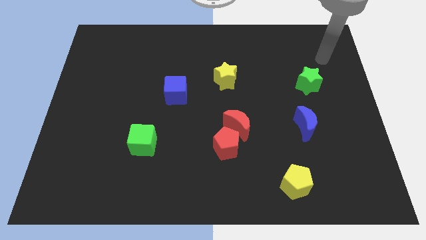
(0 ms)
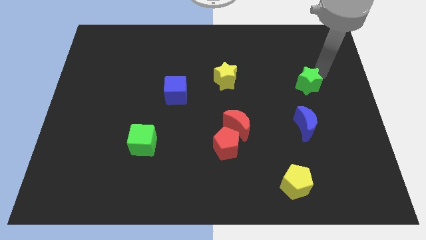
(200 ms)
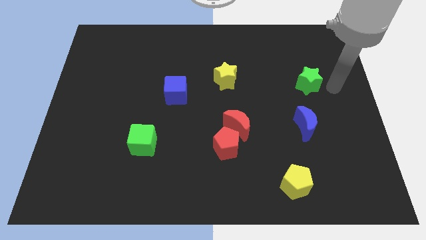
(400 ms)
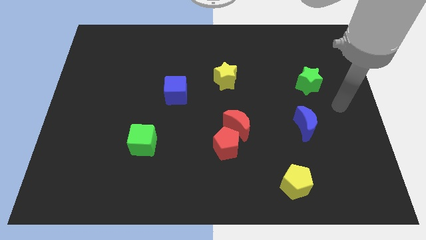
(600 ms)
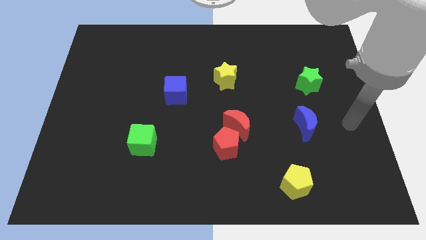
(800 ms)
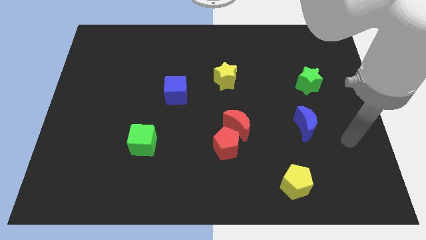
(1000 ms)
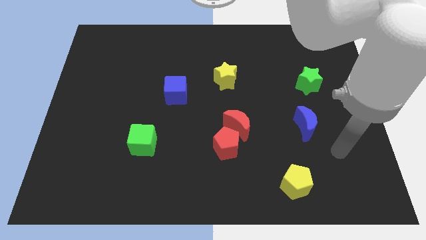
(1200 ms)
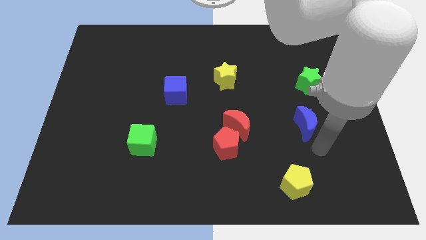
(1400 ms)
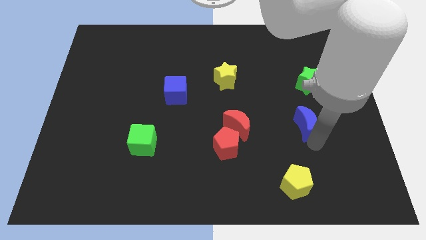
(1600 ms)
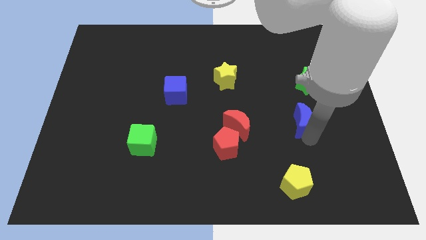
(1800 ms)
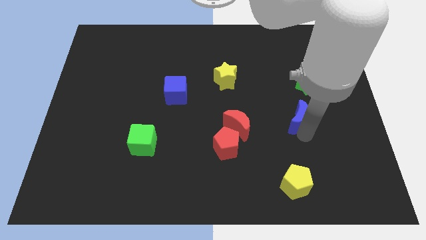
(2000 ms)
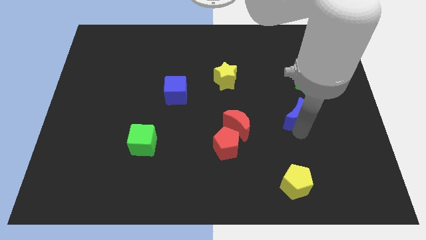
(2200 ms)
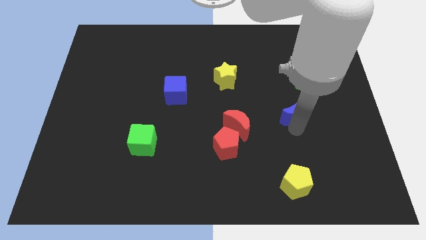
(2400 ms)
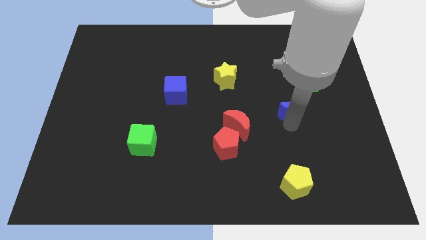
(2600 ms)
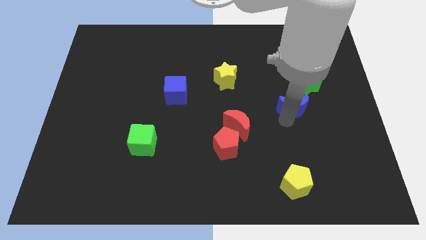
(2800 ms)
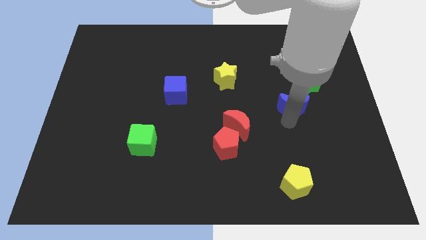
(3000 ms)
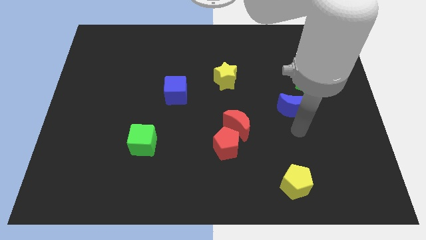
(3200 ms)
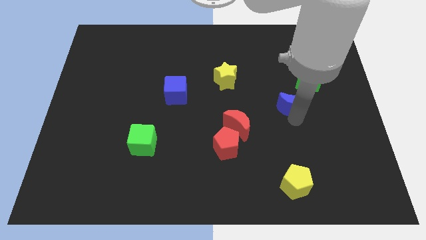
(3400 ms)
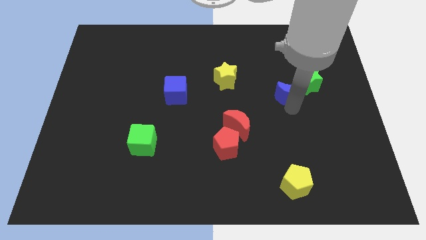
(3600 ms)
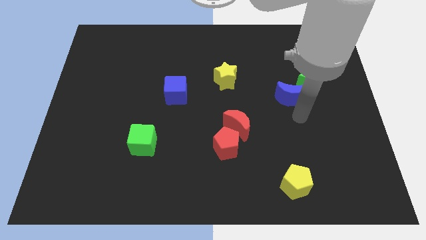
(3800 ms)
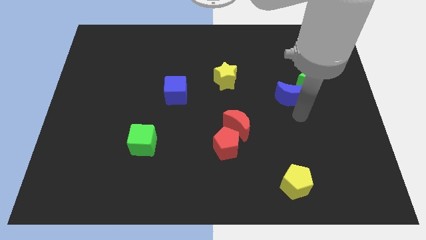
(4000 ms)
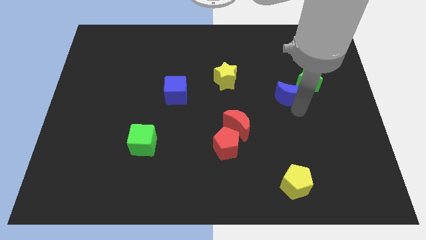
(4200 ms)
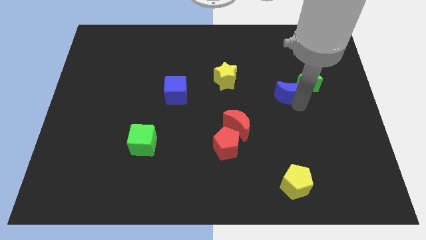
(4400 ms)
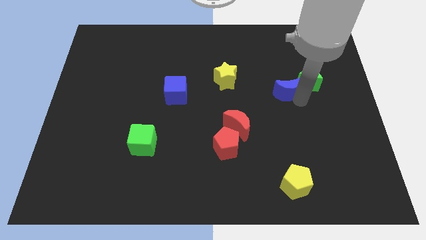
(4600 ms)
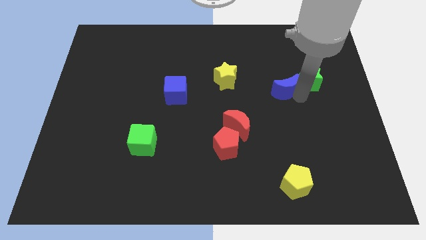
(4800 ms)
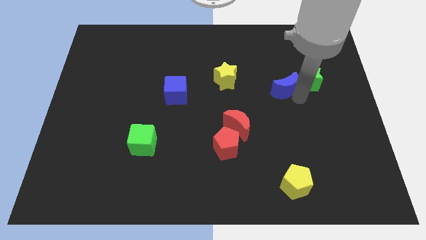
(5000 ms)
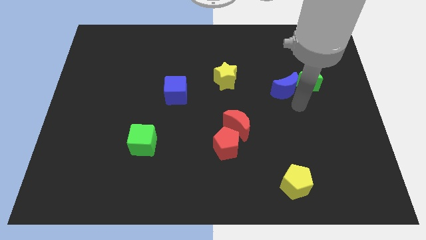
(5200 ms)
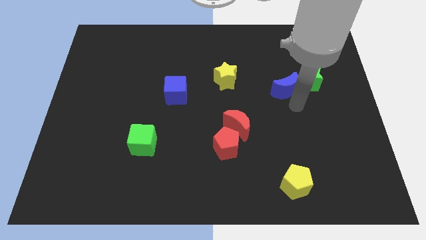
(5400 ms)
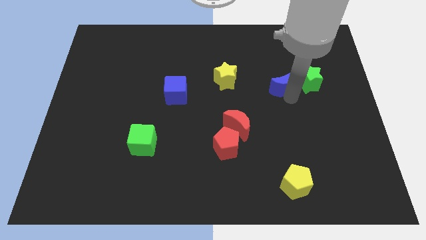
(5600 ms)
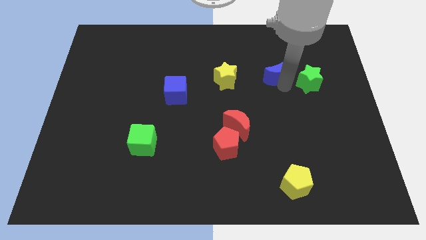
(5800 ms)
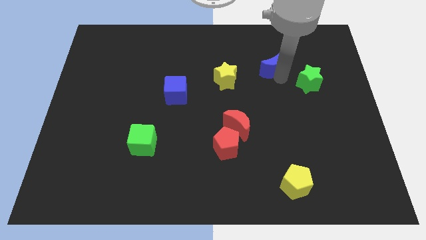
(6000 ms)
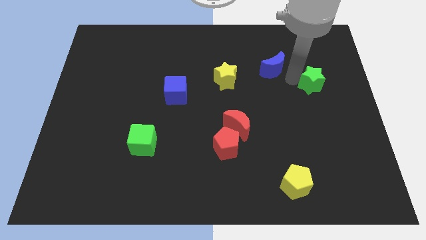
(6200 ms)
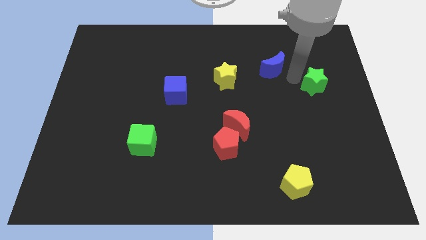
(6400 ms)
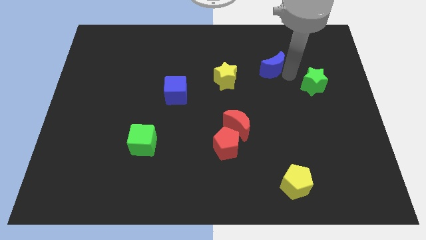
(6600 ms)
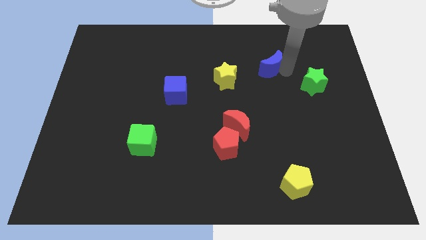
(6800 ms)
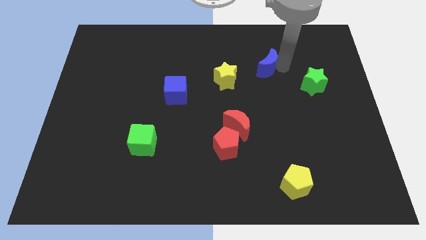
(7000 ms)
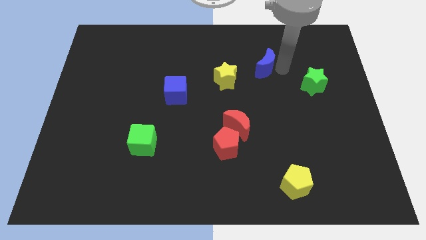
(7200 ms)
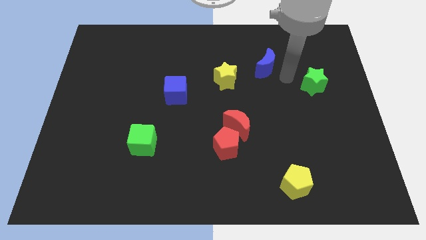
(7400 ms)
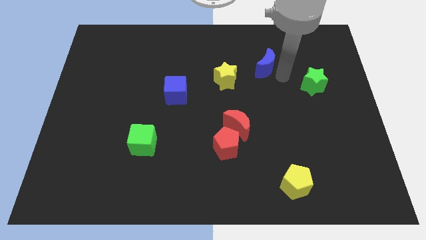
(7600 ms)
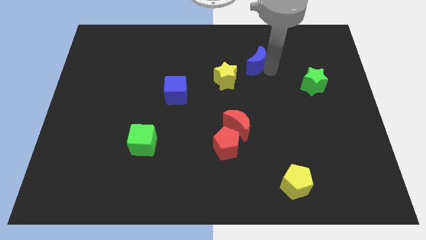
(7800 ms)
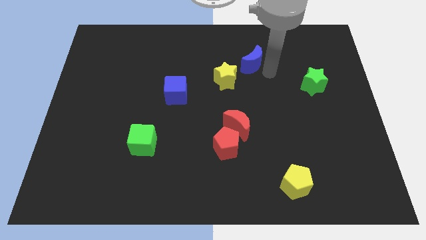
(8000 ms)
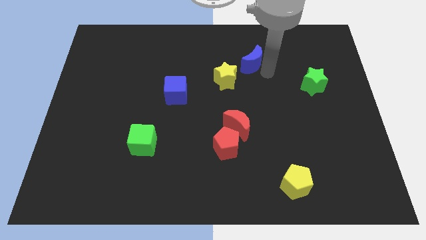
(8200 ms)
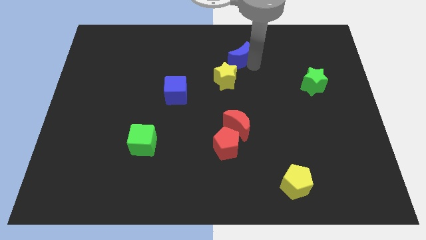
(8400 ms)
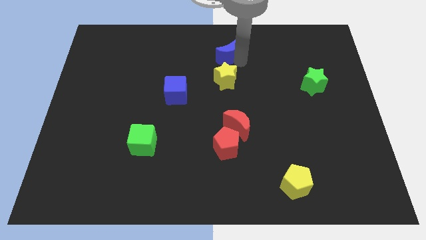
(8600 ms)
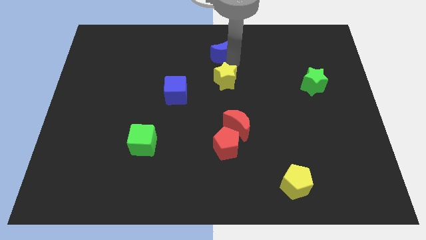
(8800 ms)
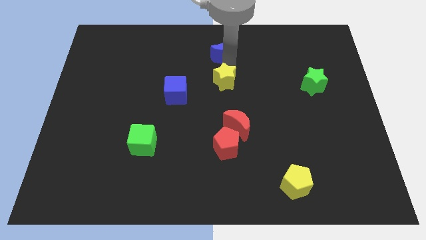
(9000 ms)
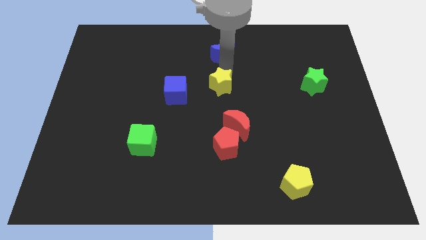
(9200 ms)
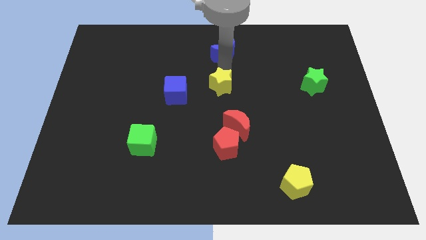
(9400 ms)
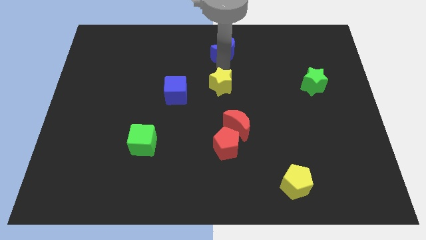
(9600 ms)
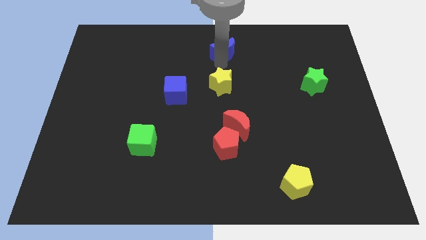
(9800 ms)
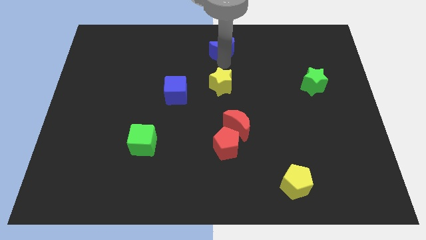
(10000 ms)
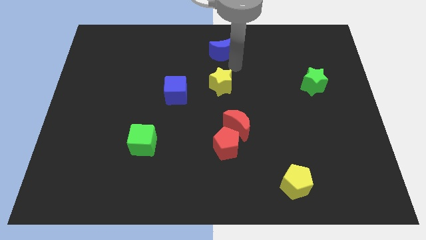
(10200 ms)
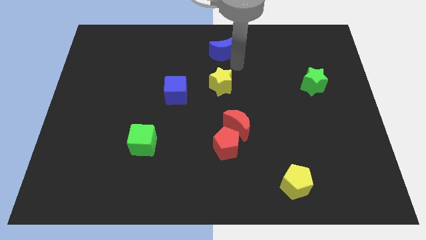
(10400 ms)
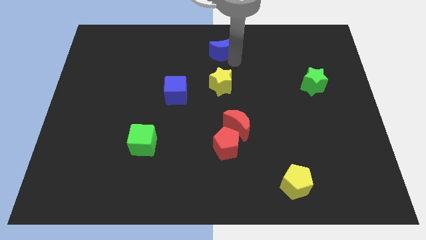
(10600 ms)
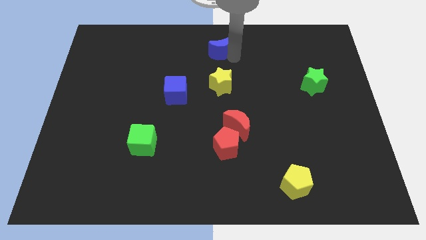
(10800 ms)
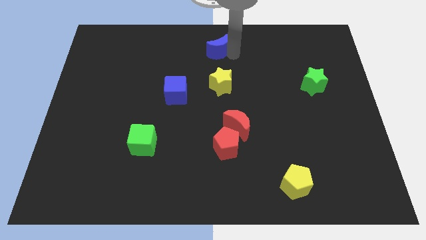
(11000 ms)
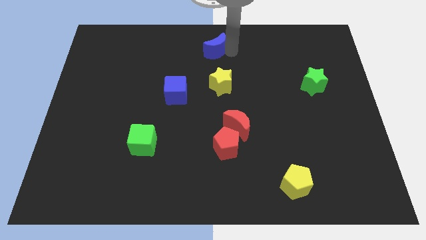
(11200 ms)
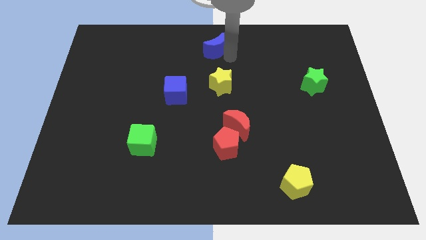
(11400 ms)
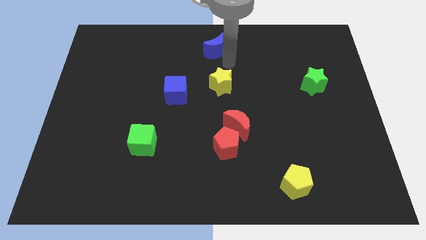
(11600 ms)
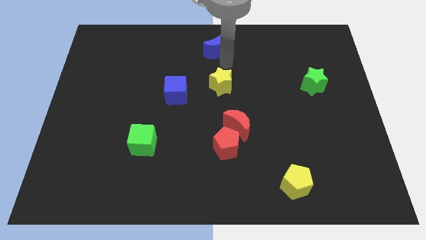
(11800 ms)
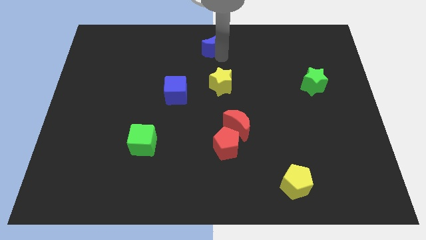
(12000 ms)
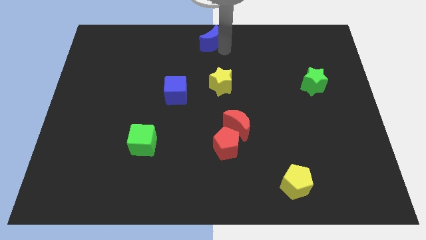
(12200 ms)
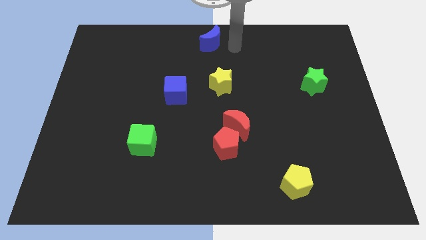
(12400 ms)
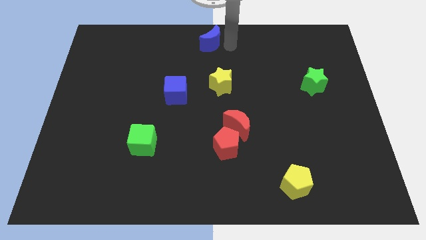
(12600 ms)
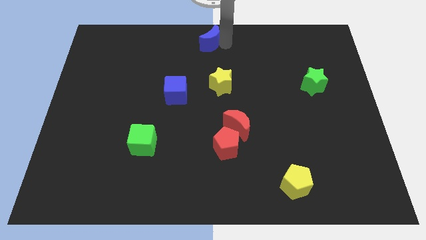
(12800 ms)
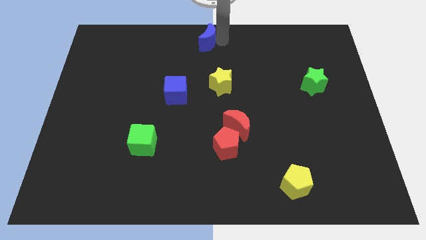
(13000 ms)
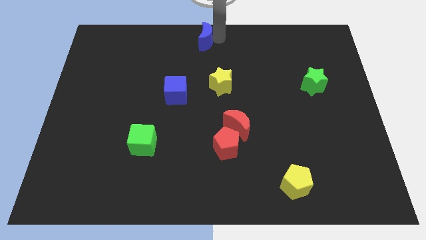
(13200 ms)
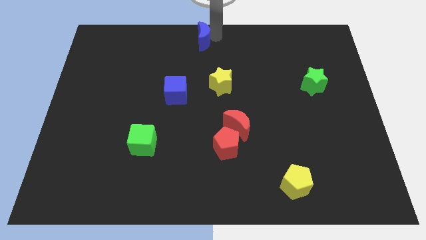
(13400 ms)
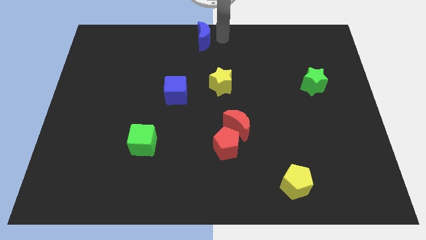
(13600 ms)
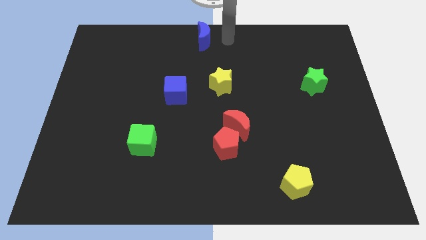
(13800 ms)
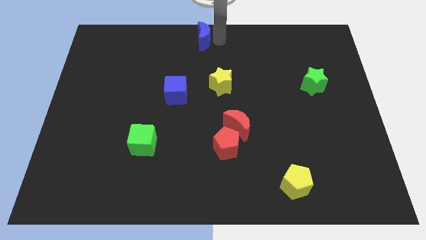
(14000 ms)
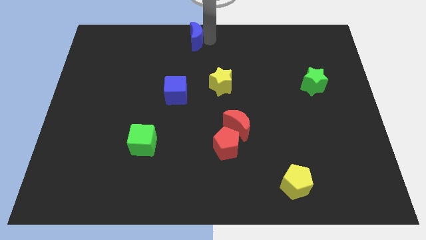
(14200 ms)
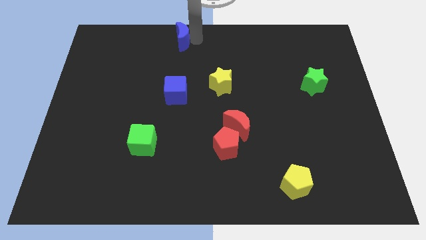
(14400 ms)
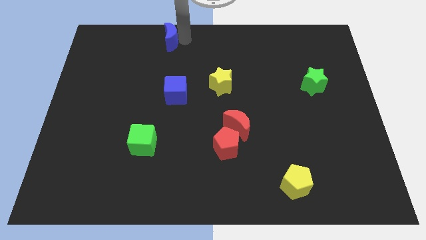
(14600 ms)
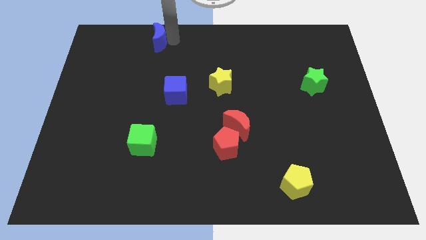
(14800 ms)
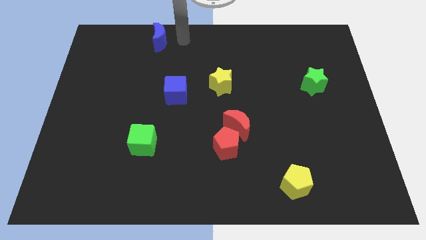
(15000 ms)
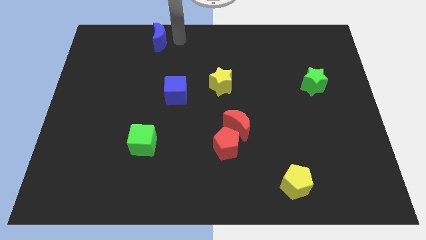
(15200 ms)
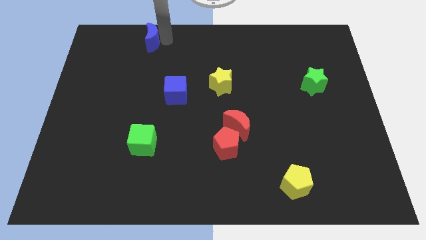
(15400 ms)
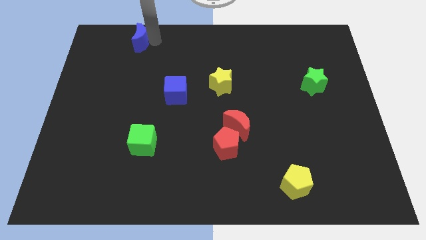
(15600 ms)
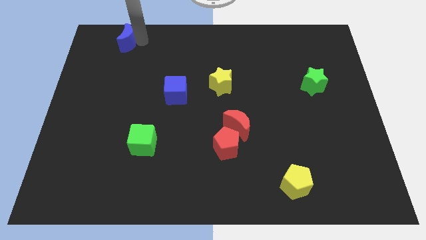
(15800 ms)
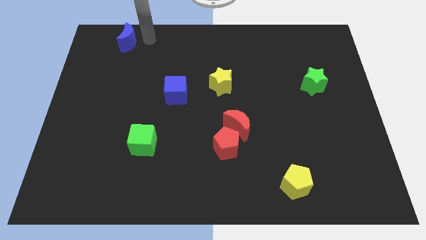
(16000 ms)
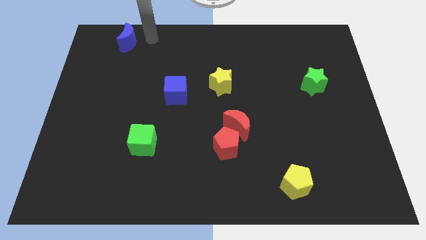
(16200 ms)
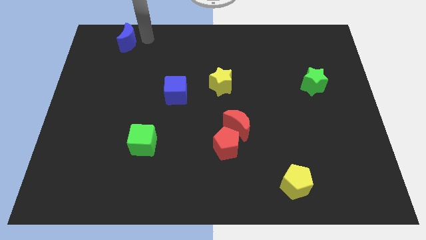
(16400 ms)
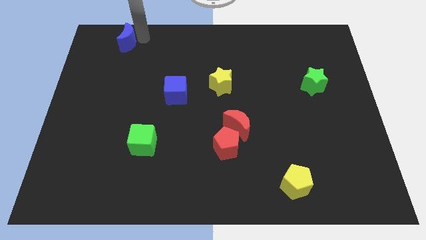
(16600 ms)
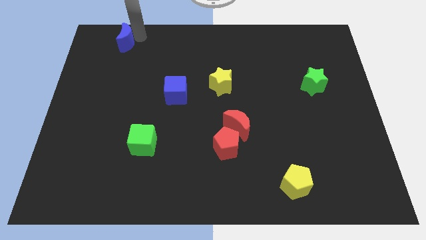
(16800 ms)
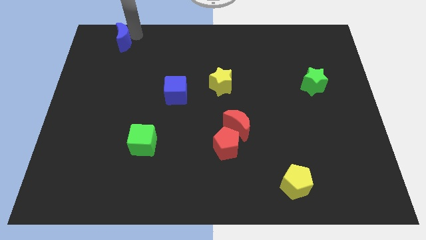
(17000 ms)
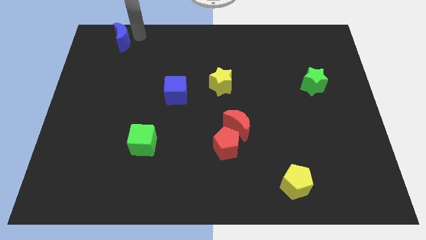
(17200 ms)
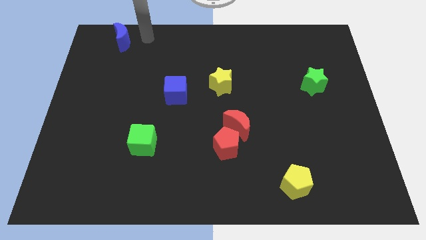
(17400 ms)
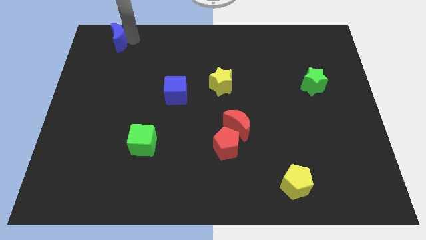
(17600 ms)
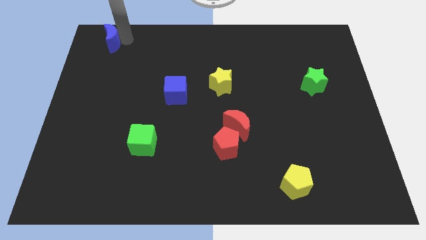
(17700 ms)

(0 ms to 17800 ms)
push the blue moon to the top left corner
